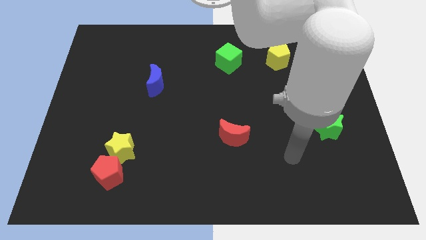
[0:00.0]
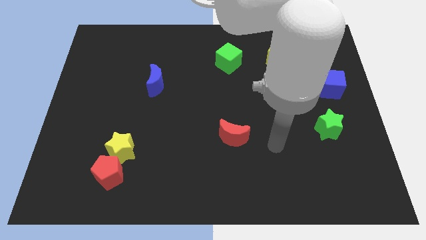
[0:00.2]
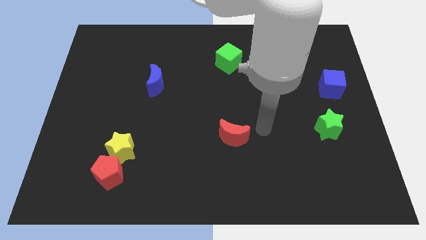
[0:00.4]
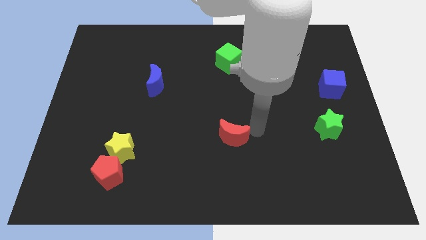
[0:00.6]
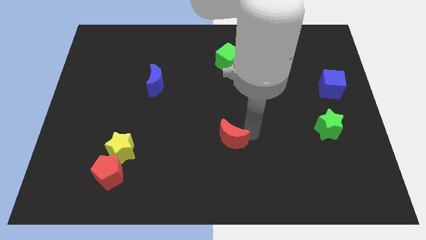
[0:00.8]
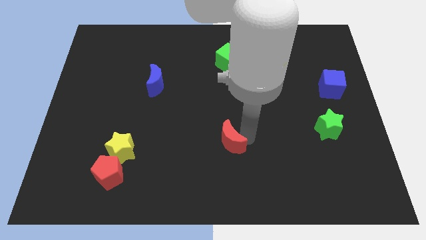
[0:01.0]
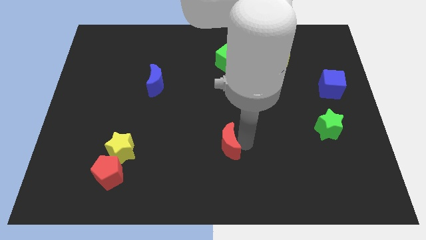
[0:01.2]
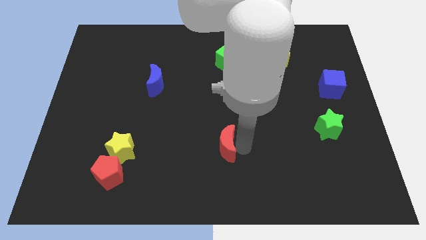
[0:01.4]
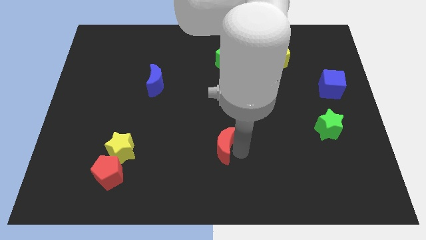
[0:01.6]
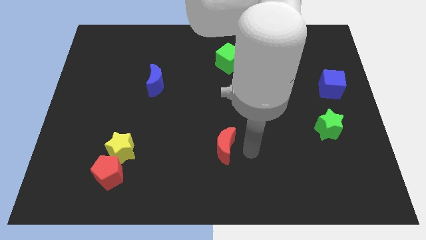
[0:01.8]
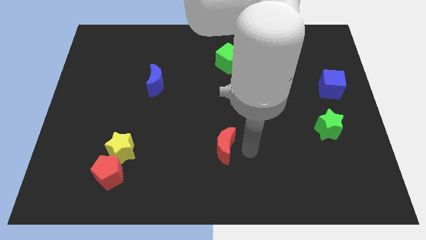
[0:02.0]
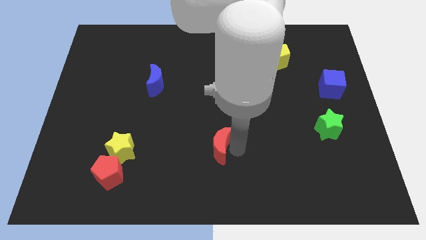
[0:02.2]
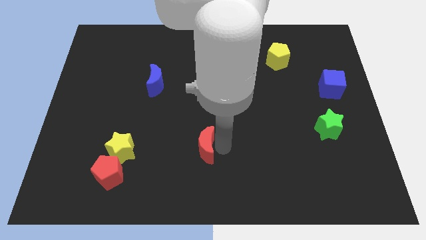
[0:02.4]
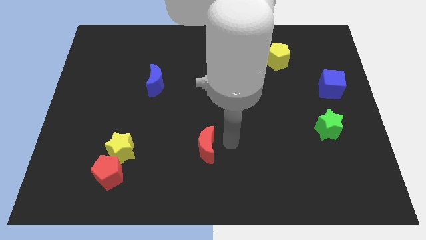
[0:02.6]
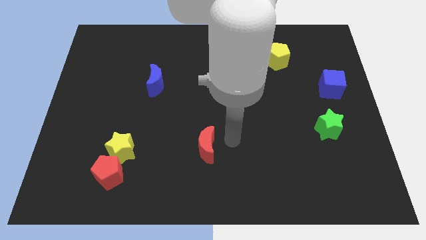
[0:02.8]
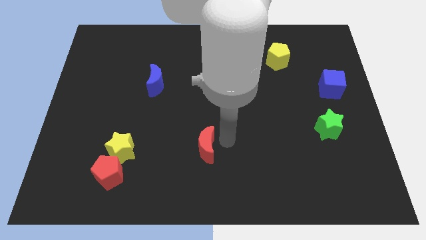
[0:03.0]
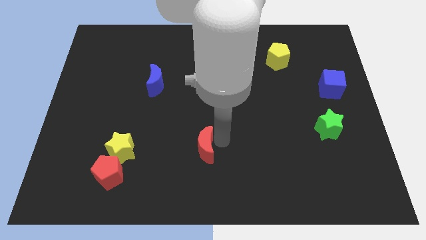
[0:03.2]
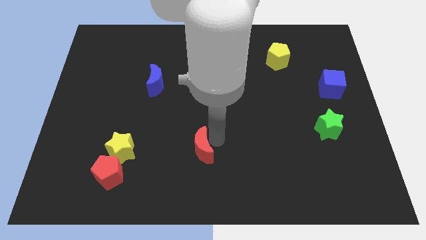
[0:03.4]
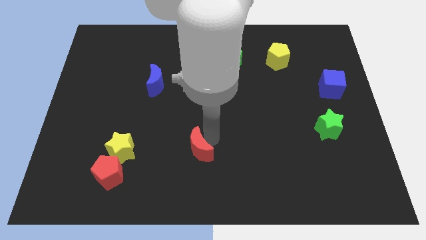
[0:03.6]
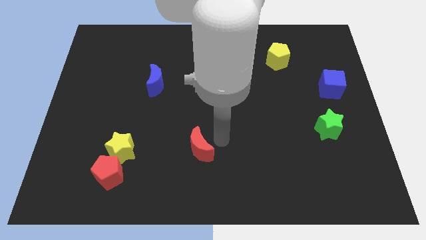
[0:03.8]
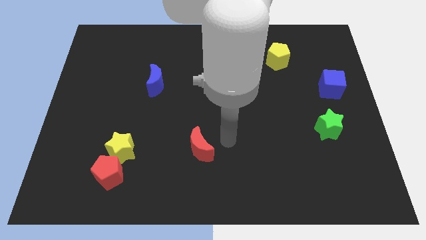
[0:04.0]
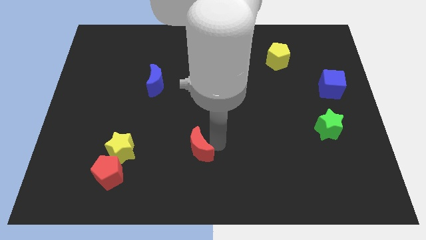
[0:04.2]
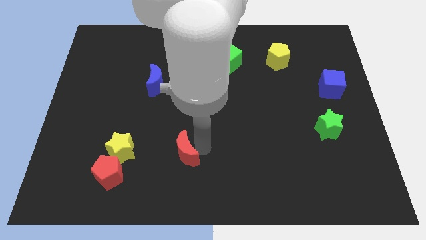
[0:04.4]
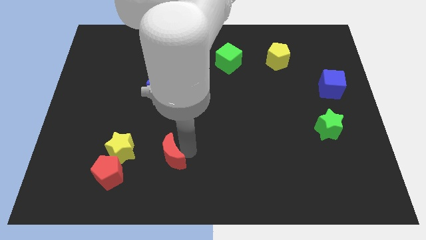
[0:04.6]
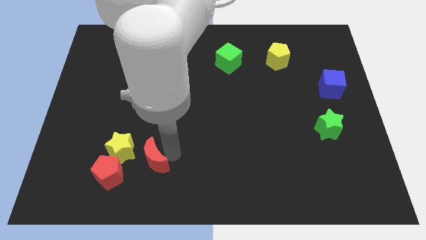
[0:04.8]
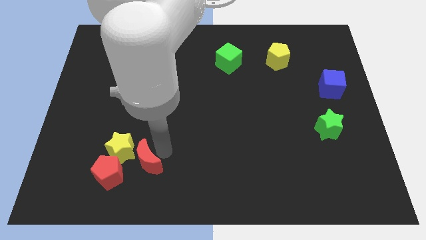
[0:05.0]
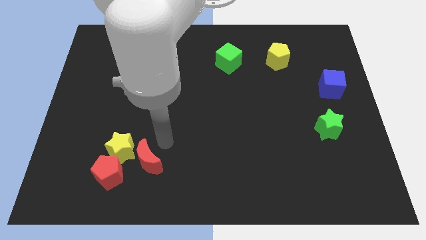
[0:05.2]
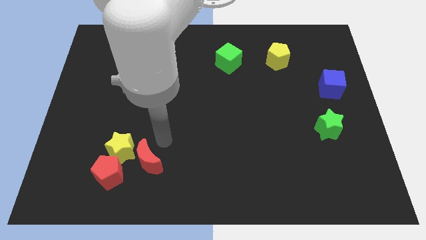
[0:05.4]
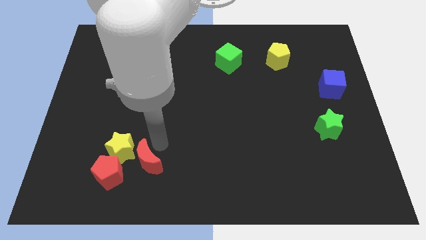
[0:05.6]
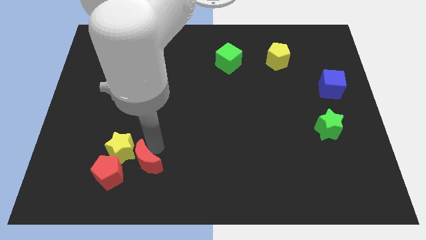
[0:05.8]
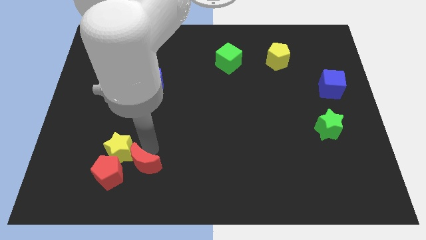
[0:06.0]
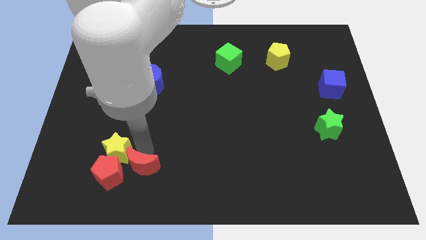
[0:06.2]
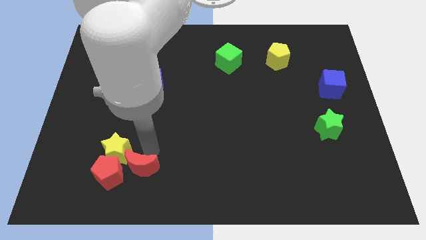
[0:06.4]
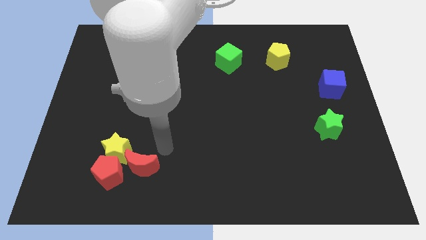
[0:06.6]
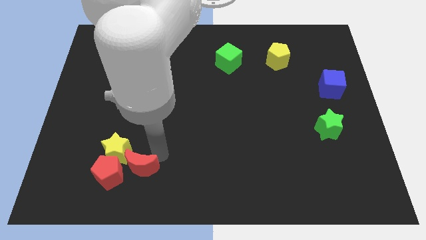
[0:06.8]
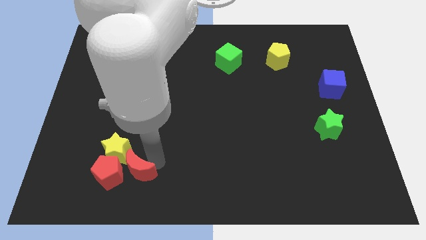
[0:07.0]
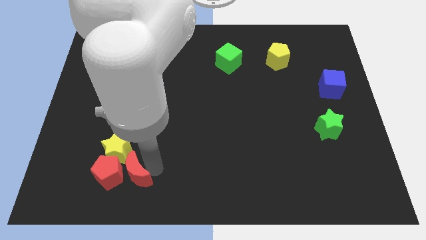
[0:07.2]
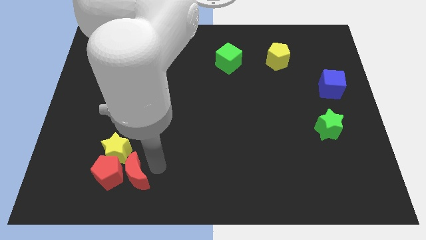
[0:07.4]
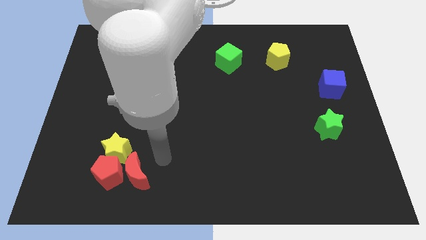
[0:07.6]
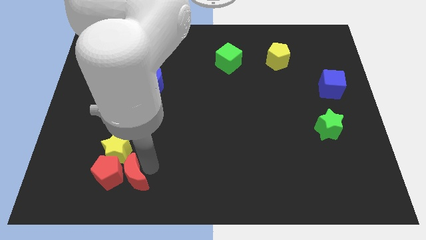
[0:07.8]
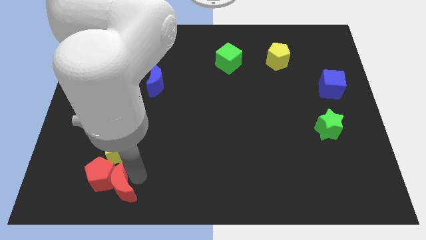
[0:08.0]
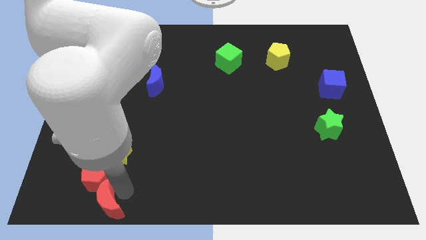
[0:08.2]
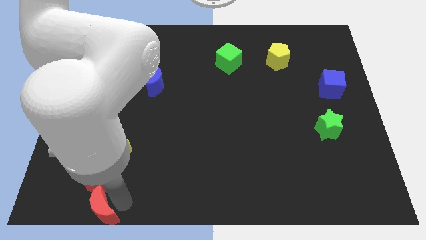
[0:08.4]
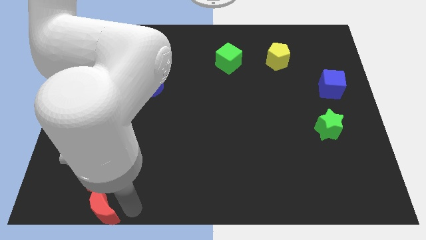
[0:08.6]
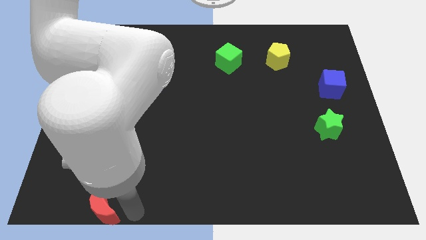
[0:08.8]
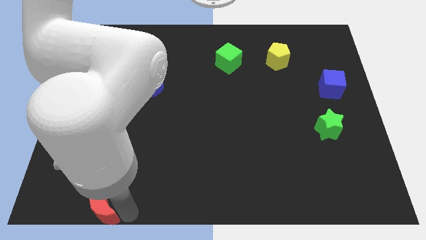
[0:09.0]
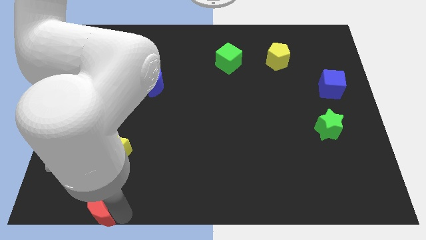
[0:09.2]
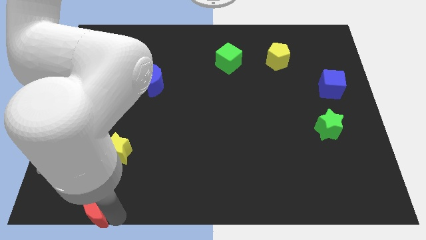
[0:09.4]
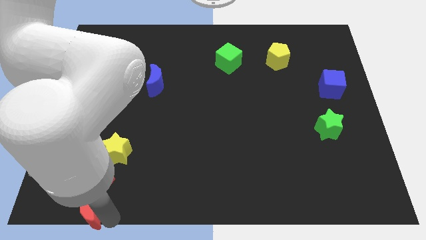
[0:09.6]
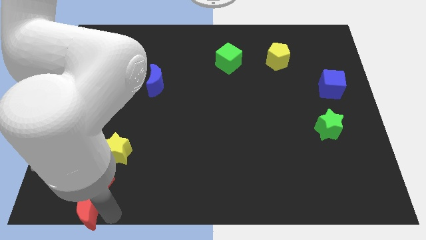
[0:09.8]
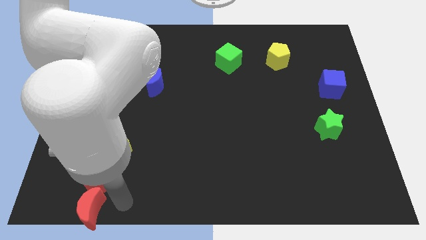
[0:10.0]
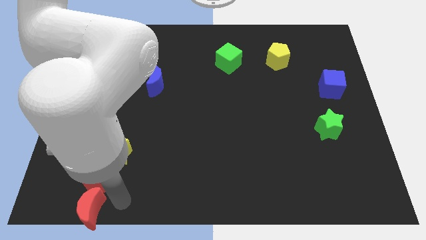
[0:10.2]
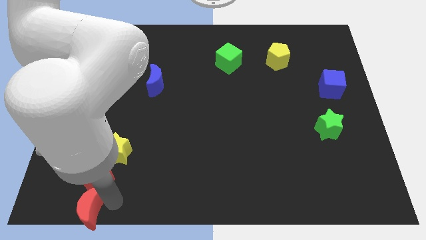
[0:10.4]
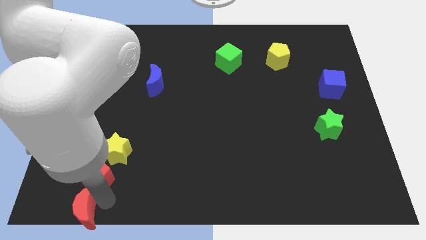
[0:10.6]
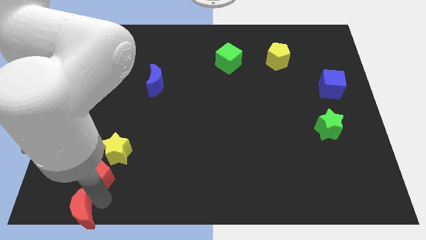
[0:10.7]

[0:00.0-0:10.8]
put the red moon to the bottom left of the board
